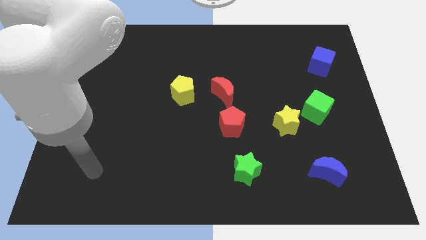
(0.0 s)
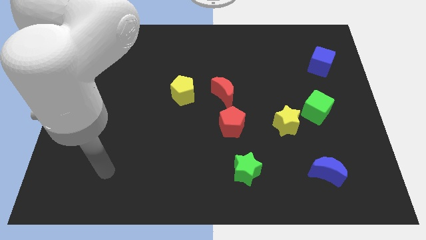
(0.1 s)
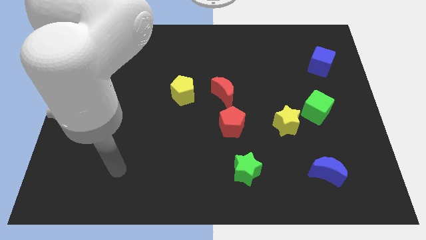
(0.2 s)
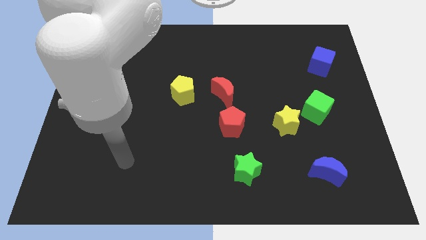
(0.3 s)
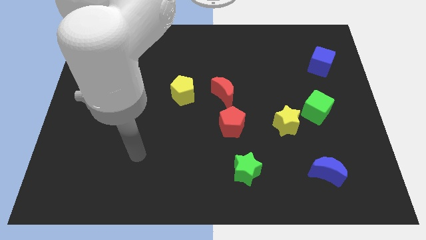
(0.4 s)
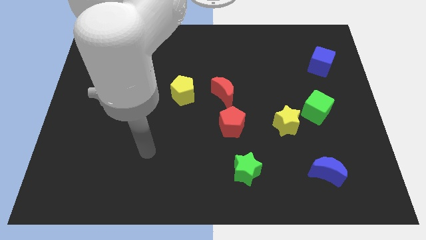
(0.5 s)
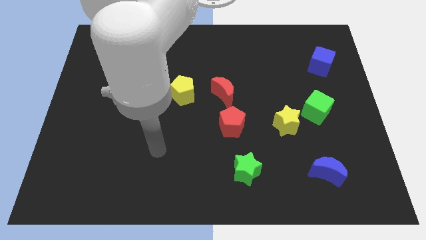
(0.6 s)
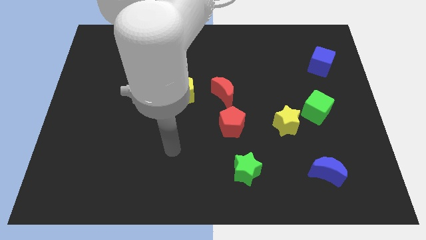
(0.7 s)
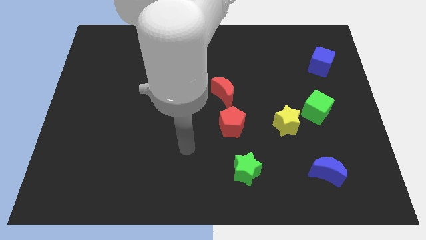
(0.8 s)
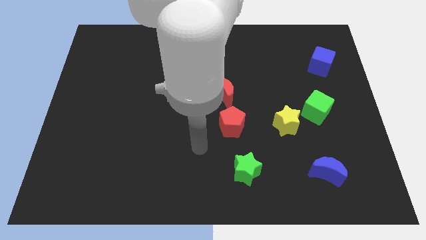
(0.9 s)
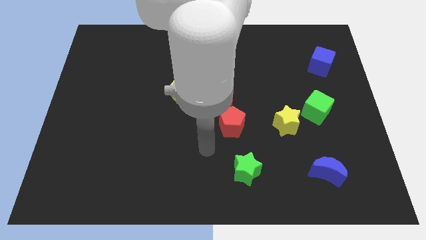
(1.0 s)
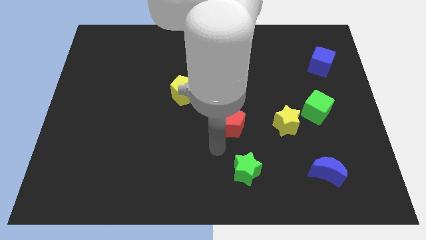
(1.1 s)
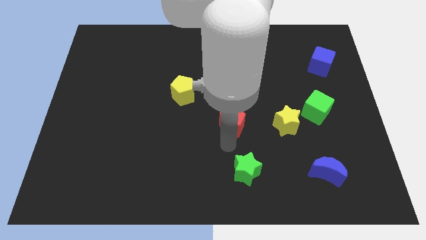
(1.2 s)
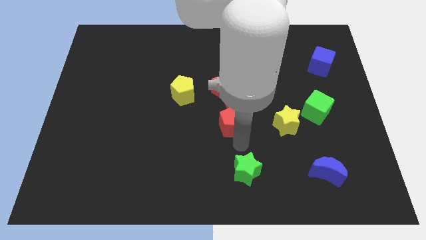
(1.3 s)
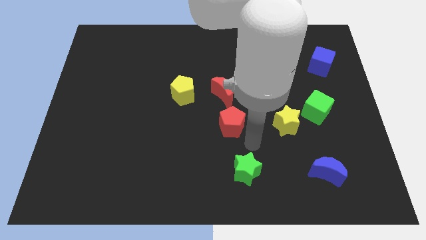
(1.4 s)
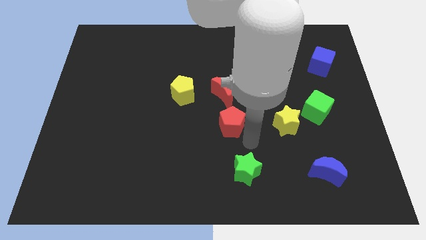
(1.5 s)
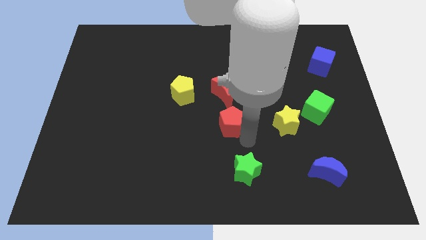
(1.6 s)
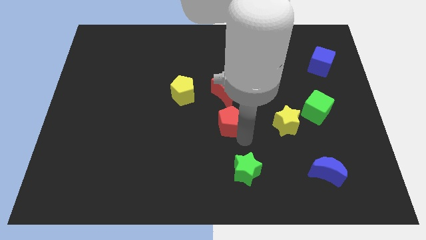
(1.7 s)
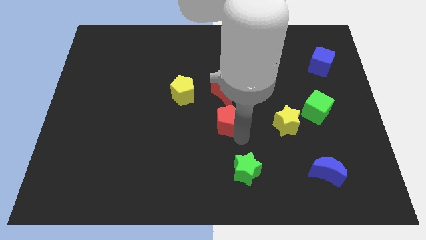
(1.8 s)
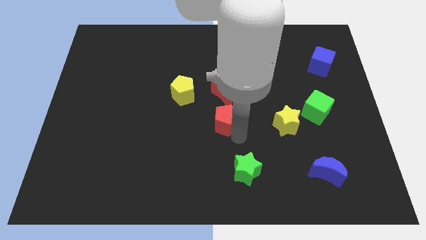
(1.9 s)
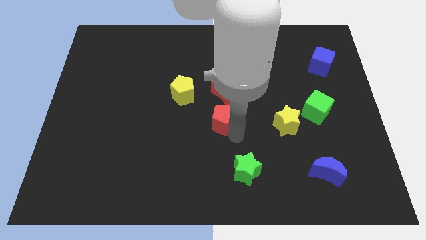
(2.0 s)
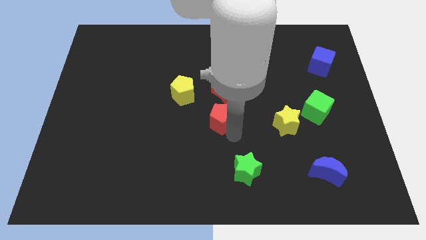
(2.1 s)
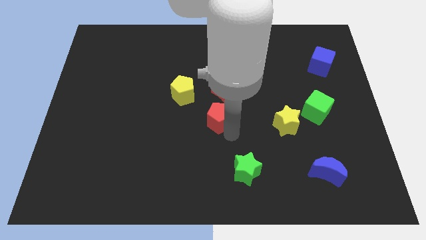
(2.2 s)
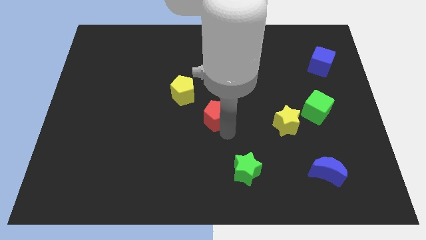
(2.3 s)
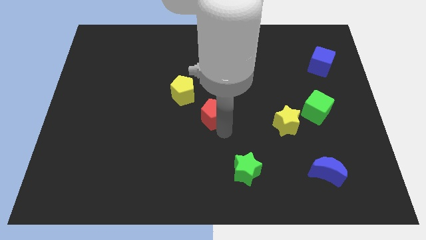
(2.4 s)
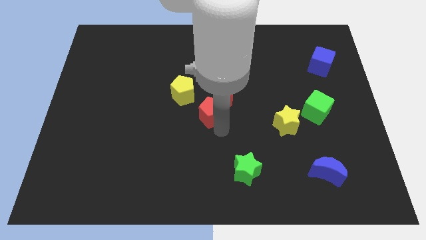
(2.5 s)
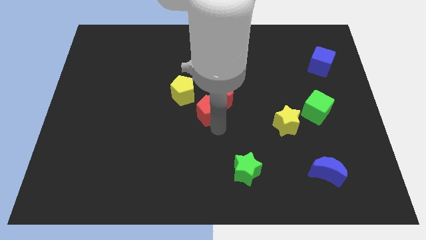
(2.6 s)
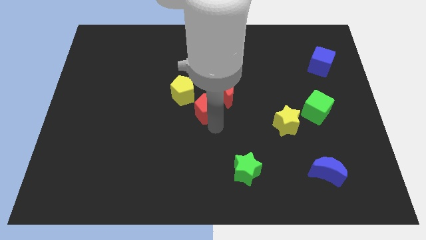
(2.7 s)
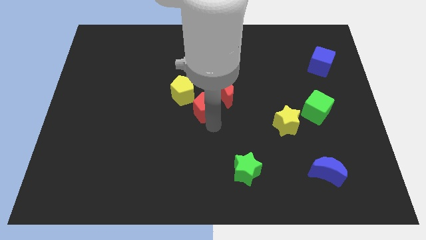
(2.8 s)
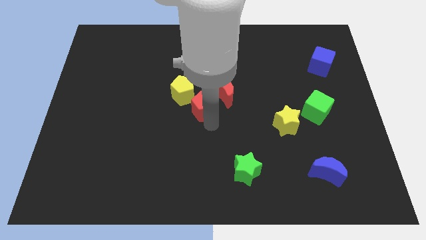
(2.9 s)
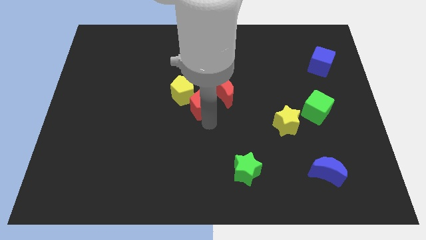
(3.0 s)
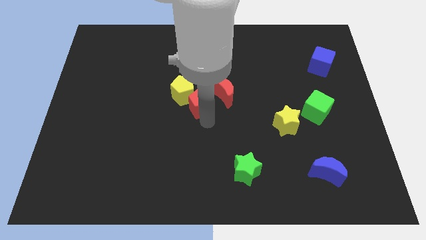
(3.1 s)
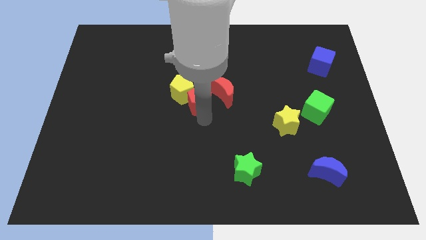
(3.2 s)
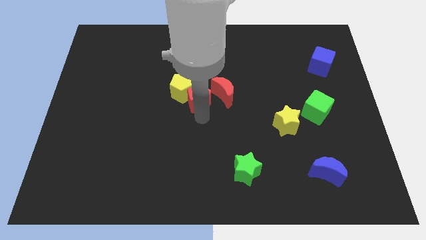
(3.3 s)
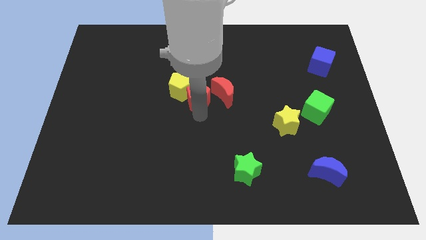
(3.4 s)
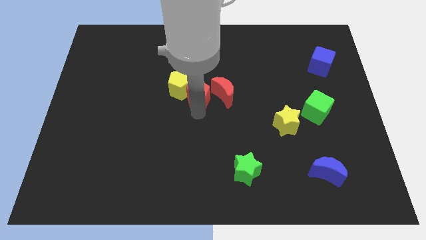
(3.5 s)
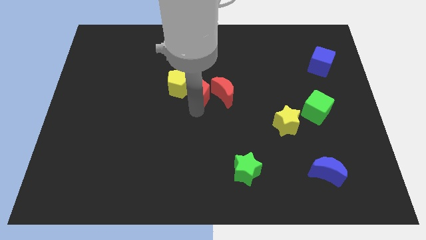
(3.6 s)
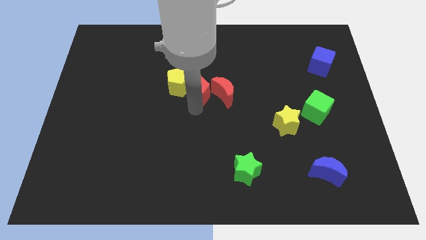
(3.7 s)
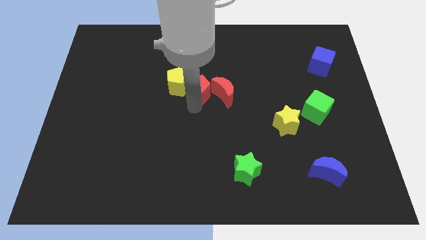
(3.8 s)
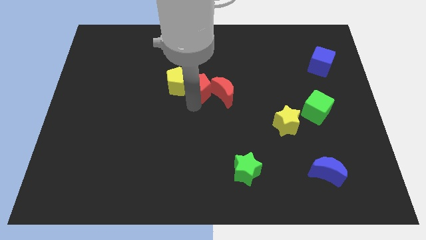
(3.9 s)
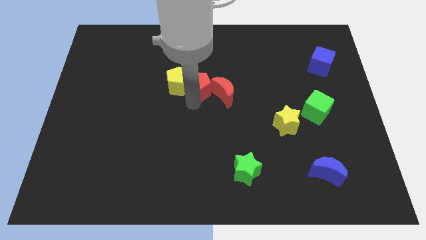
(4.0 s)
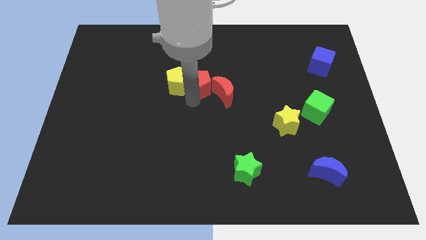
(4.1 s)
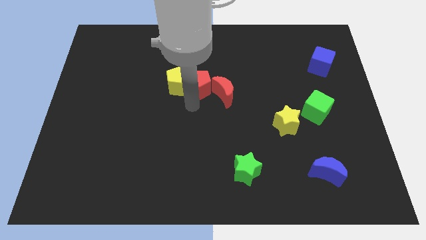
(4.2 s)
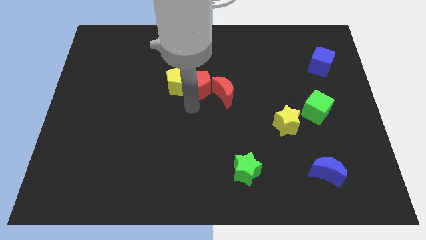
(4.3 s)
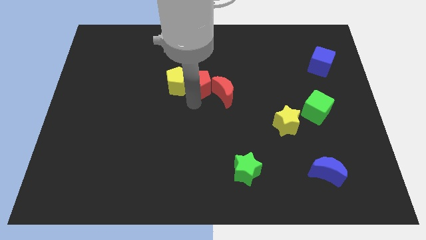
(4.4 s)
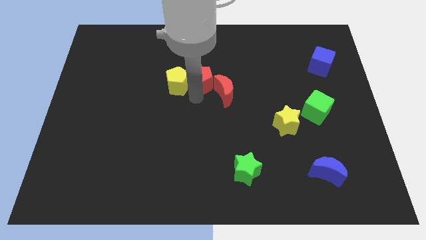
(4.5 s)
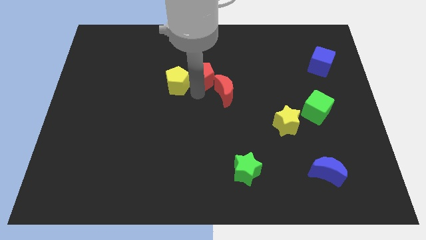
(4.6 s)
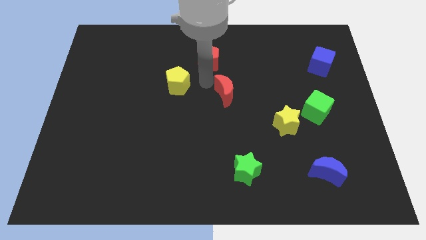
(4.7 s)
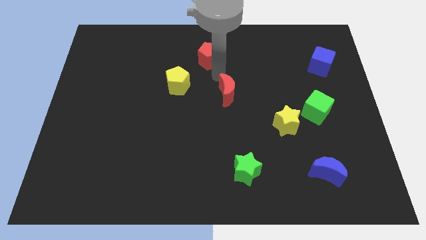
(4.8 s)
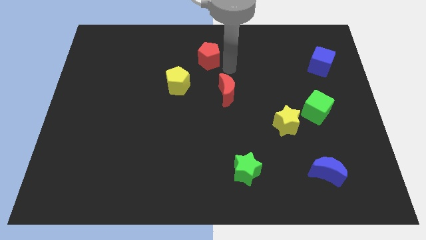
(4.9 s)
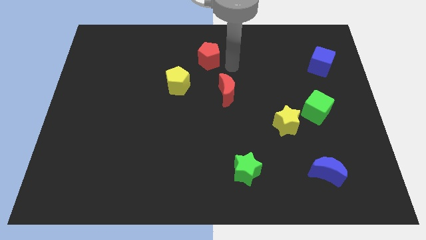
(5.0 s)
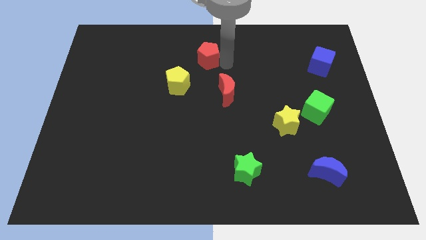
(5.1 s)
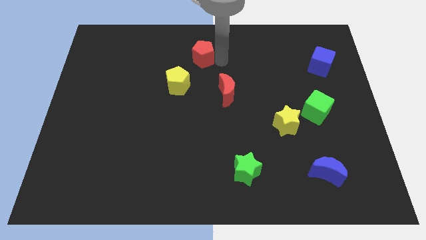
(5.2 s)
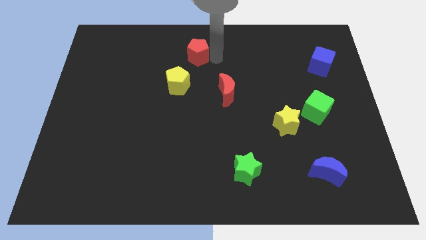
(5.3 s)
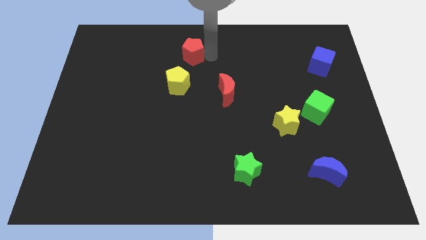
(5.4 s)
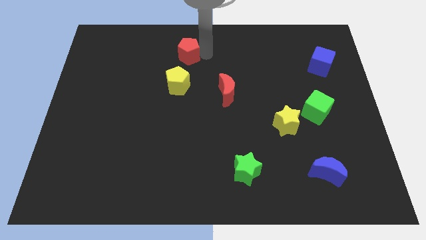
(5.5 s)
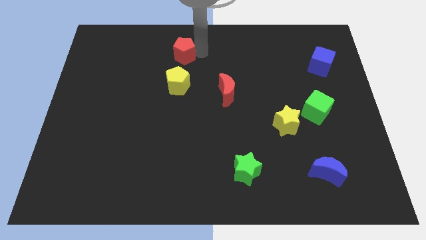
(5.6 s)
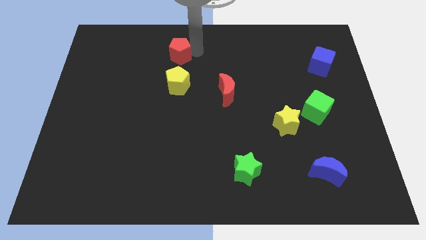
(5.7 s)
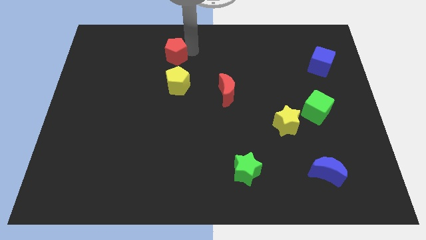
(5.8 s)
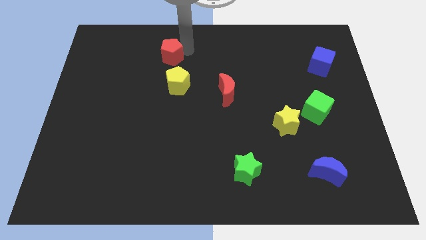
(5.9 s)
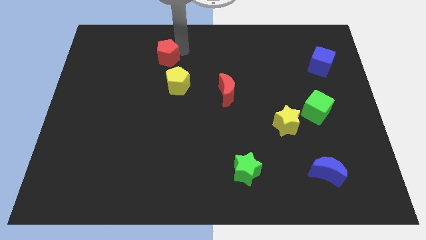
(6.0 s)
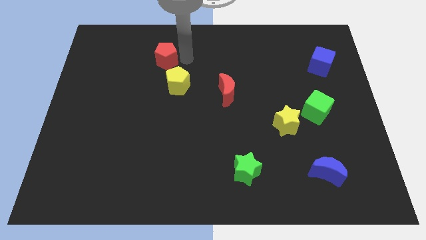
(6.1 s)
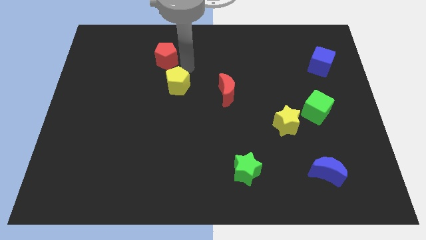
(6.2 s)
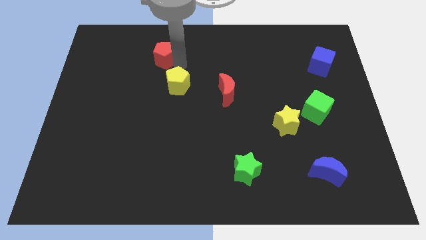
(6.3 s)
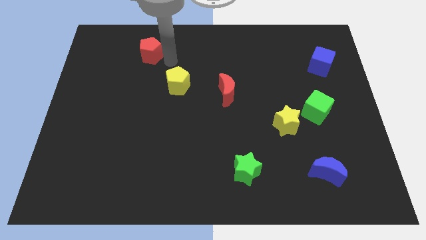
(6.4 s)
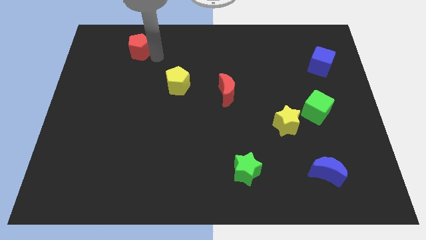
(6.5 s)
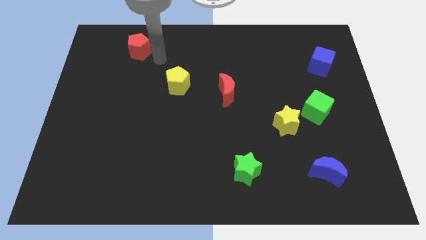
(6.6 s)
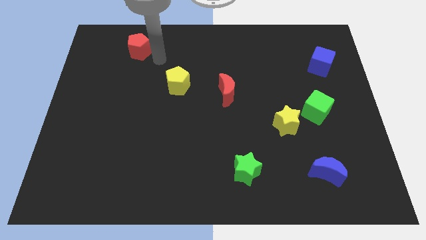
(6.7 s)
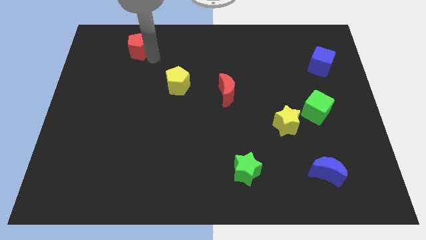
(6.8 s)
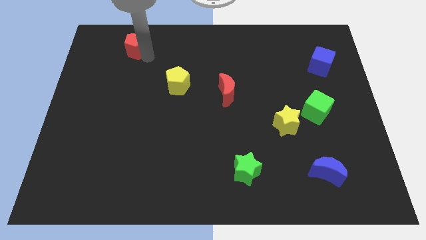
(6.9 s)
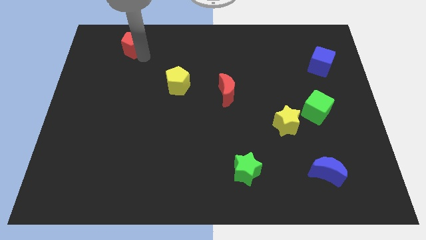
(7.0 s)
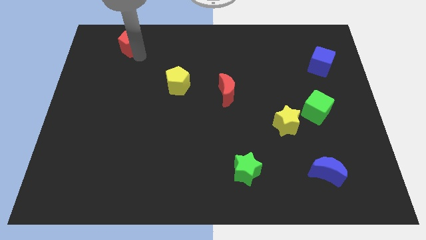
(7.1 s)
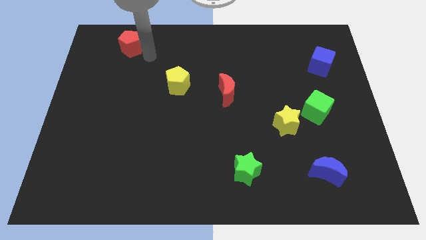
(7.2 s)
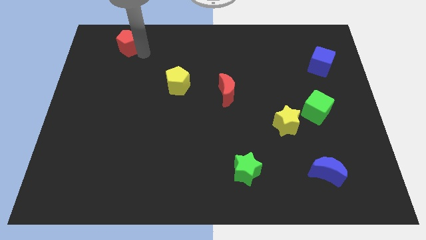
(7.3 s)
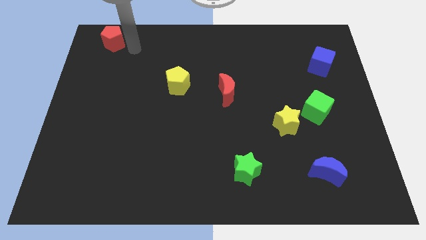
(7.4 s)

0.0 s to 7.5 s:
put the red pentagon to the top left corner
